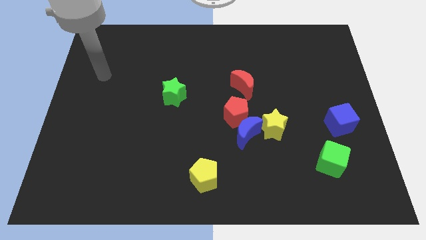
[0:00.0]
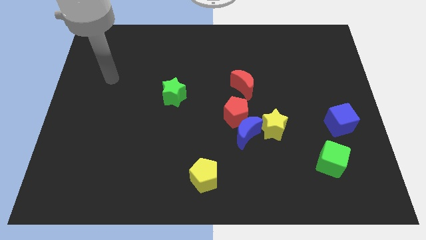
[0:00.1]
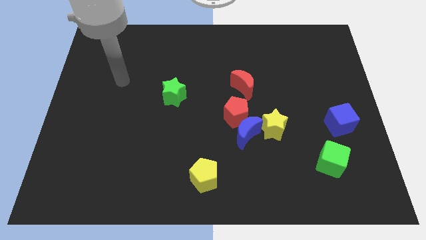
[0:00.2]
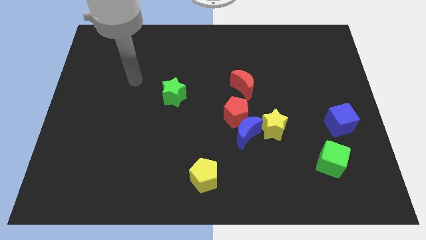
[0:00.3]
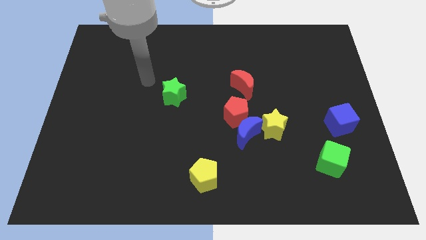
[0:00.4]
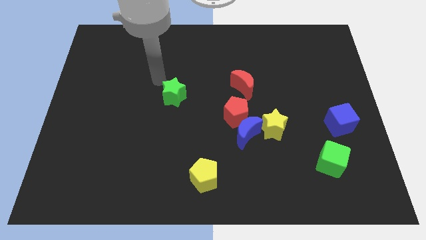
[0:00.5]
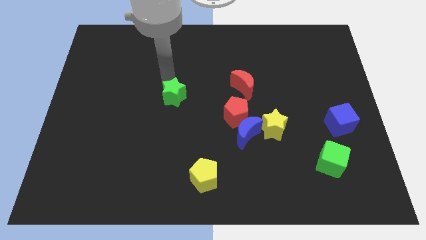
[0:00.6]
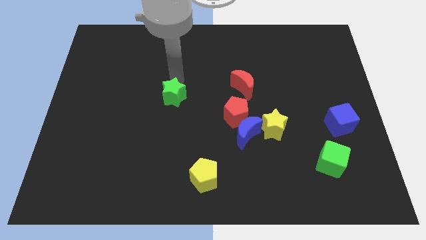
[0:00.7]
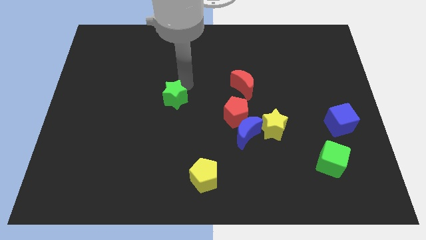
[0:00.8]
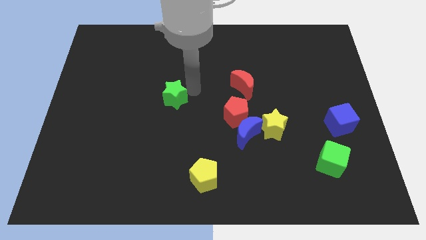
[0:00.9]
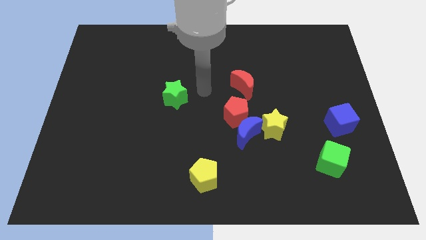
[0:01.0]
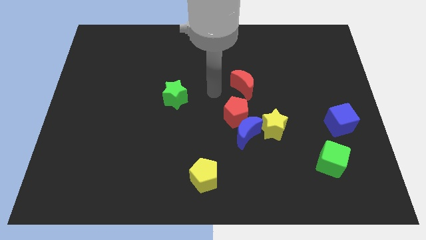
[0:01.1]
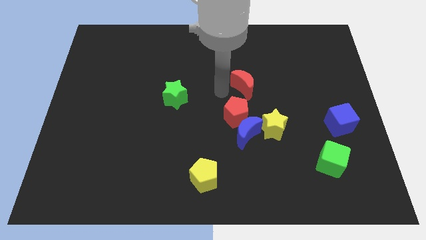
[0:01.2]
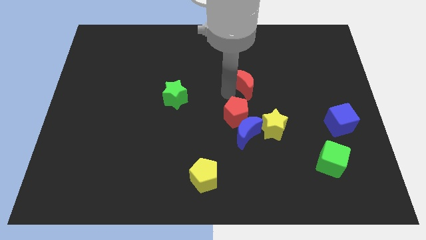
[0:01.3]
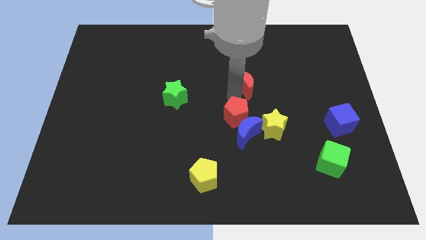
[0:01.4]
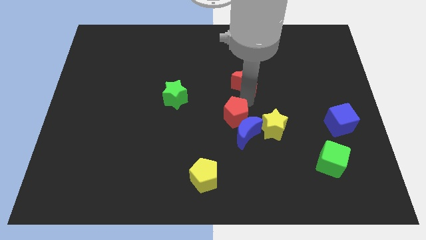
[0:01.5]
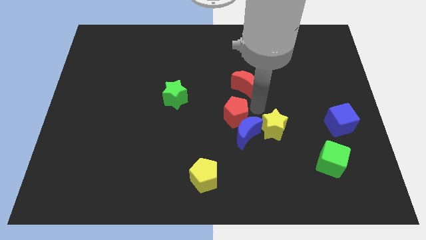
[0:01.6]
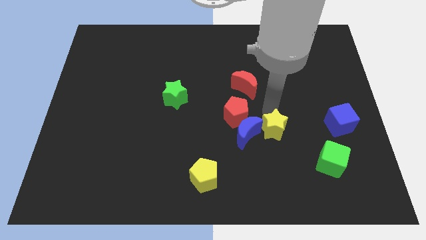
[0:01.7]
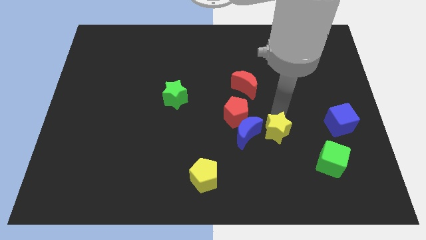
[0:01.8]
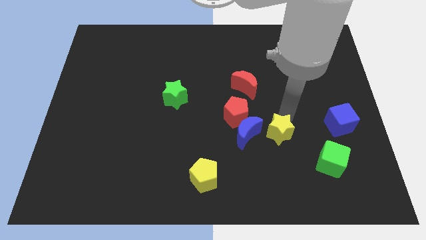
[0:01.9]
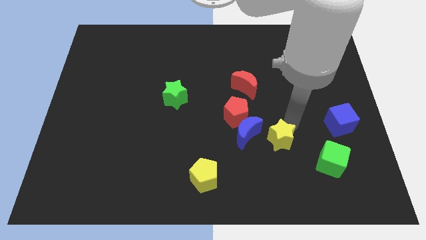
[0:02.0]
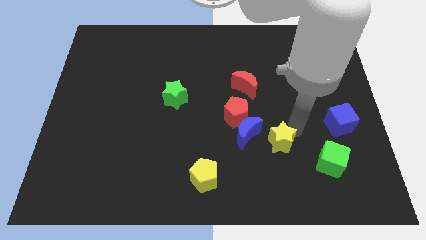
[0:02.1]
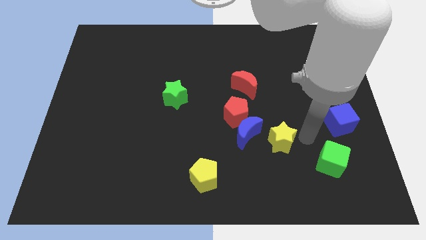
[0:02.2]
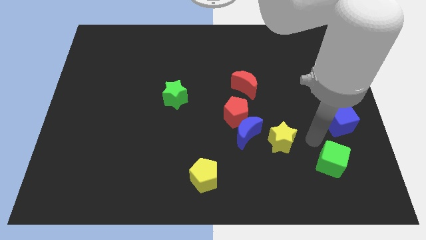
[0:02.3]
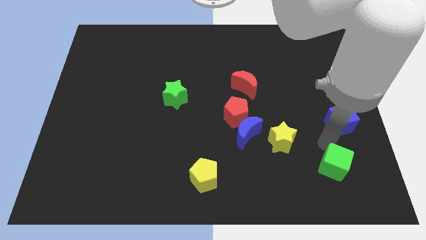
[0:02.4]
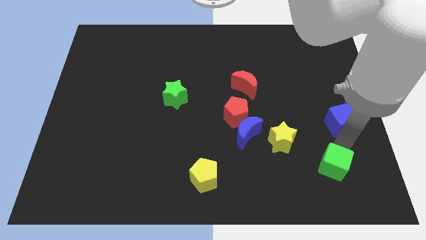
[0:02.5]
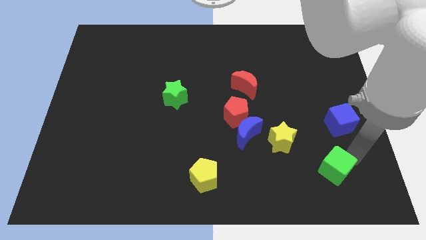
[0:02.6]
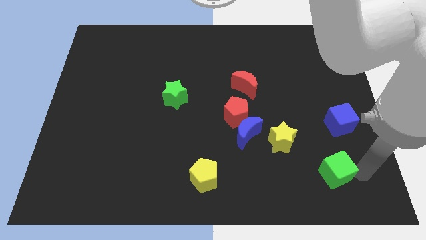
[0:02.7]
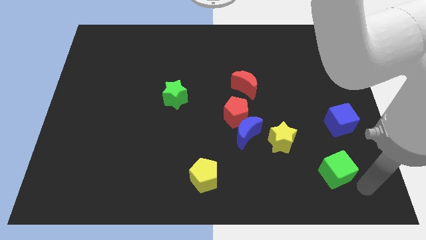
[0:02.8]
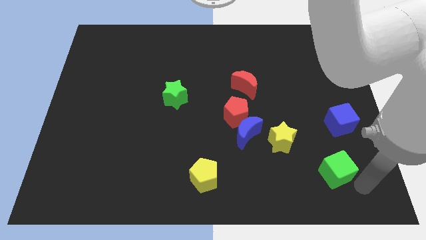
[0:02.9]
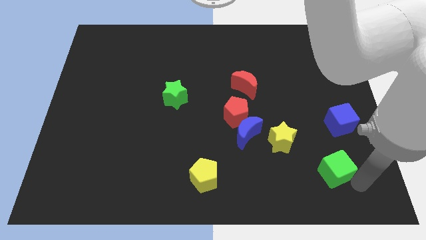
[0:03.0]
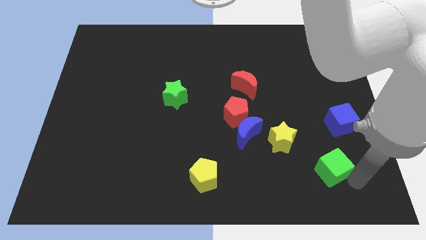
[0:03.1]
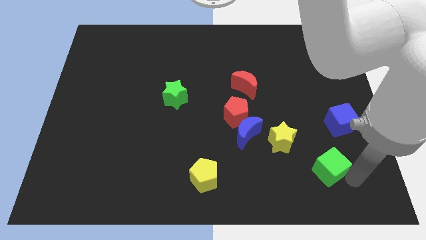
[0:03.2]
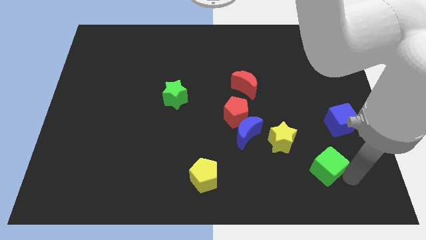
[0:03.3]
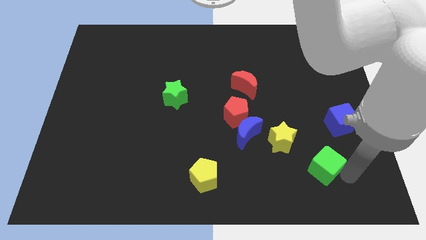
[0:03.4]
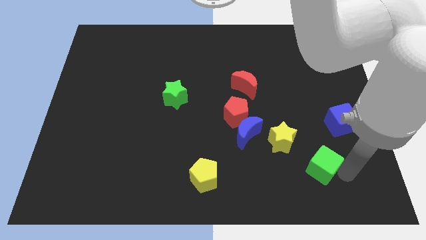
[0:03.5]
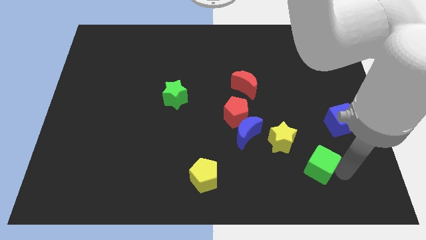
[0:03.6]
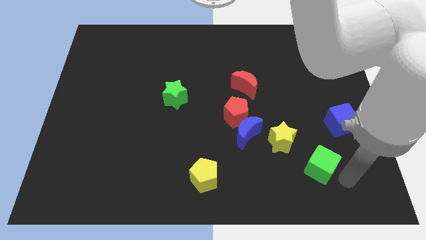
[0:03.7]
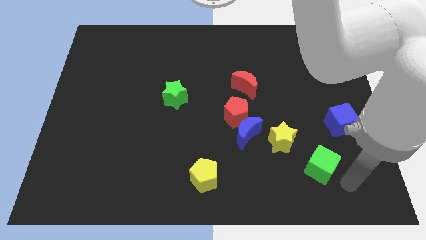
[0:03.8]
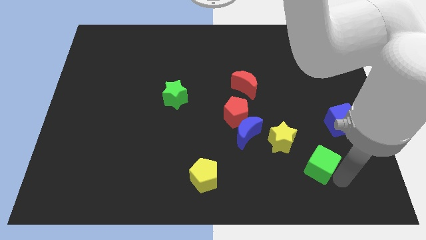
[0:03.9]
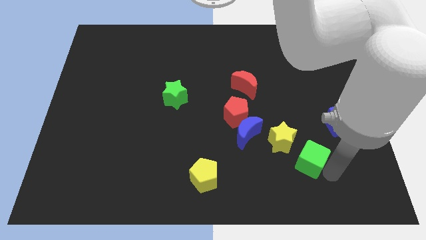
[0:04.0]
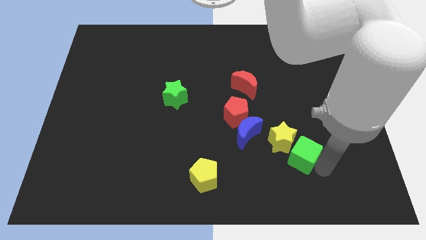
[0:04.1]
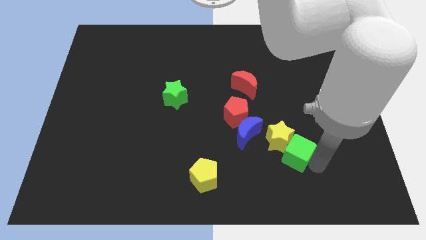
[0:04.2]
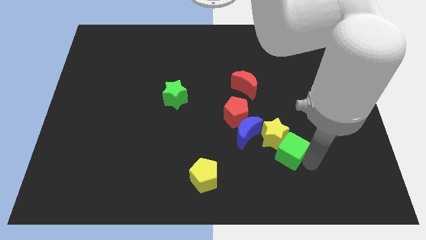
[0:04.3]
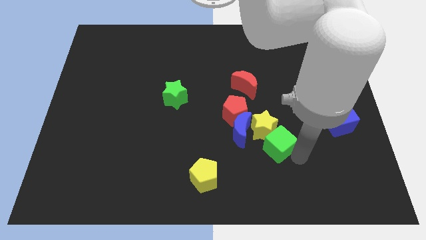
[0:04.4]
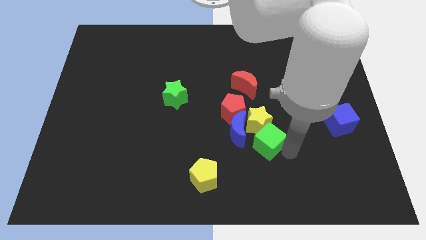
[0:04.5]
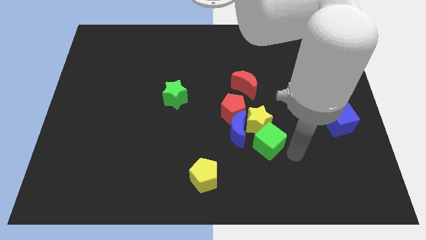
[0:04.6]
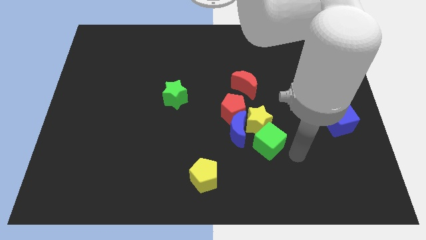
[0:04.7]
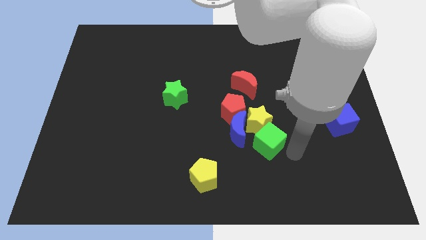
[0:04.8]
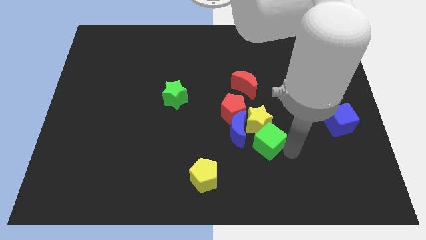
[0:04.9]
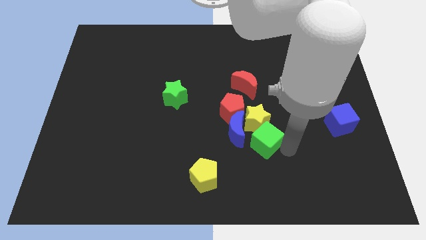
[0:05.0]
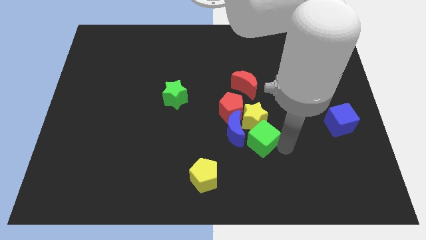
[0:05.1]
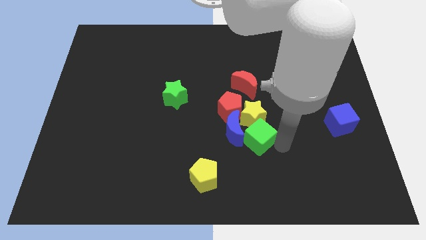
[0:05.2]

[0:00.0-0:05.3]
push the green cube close to the blue moon

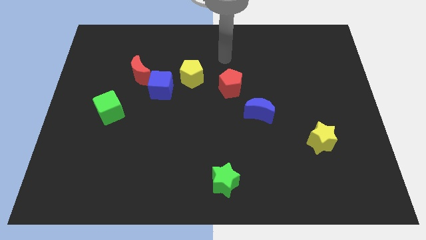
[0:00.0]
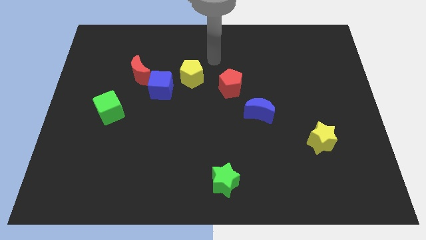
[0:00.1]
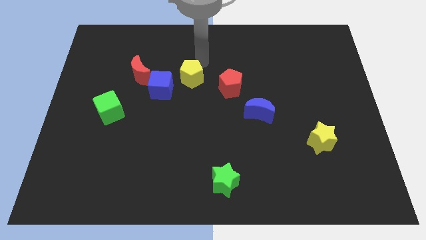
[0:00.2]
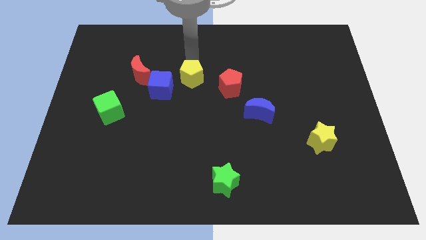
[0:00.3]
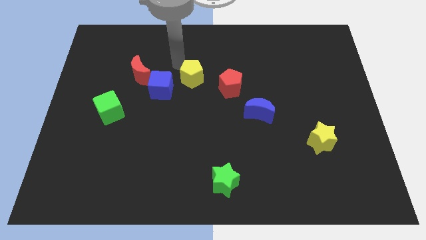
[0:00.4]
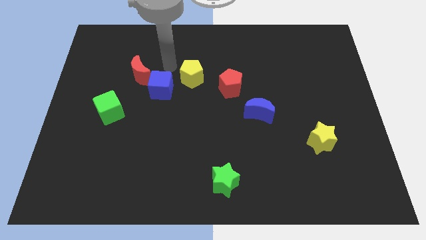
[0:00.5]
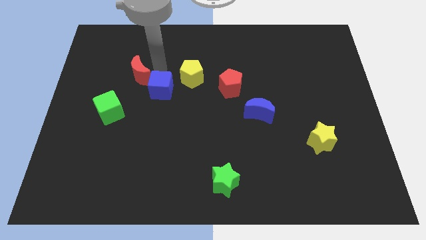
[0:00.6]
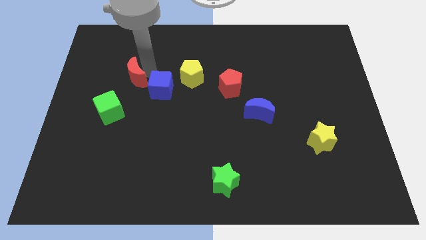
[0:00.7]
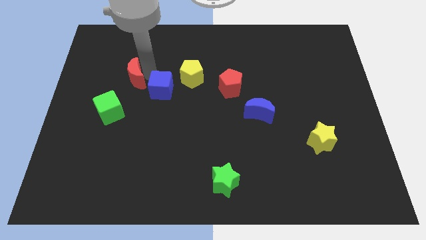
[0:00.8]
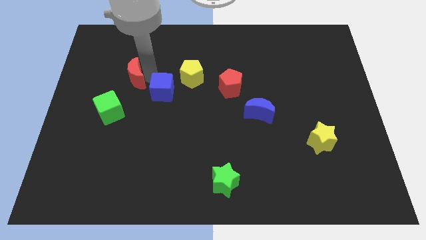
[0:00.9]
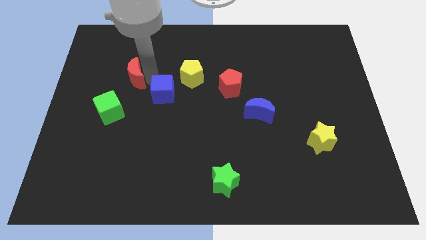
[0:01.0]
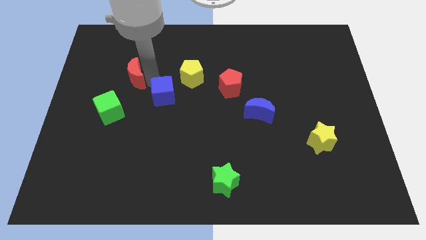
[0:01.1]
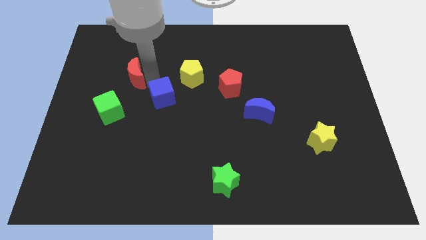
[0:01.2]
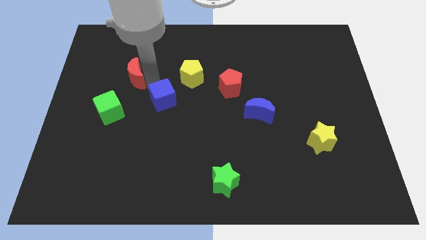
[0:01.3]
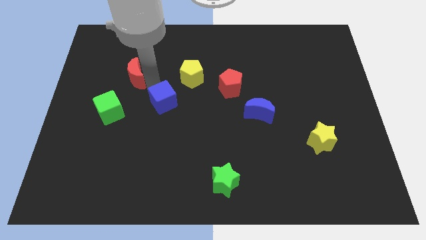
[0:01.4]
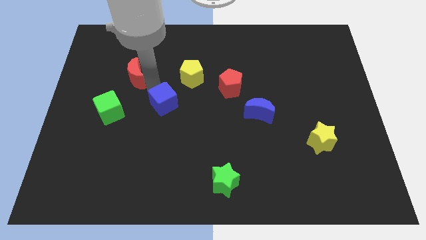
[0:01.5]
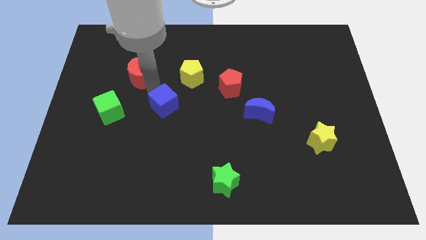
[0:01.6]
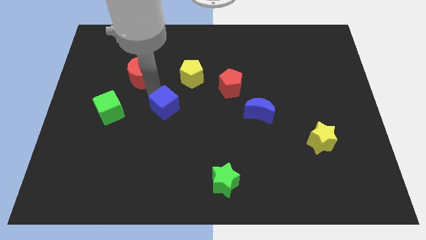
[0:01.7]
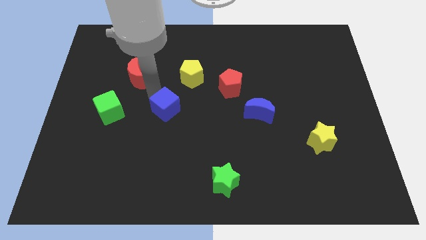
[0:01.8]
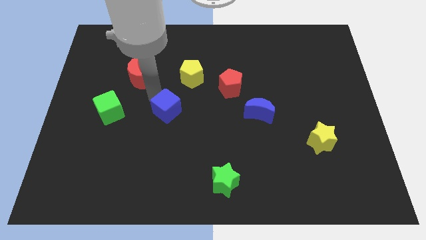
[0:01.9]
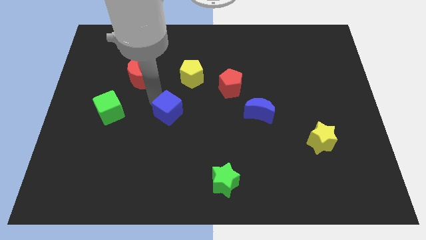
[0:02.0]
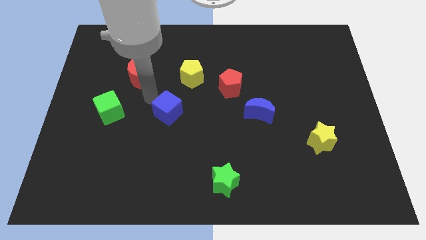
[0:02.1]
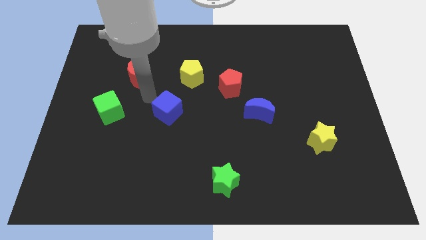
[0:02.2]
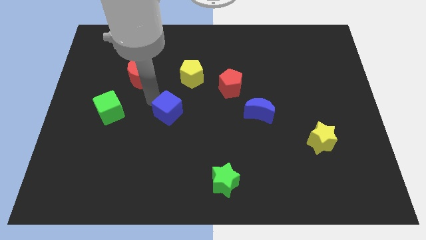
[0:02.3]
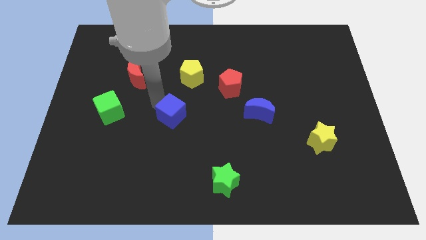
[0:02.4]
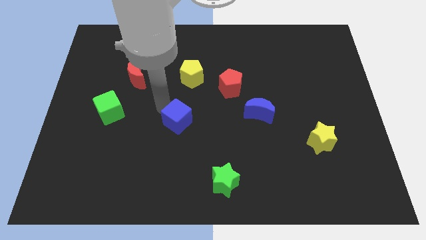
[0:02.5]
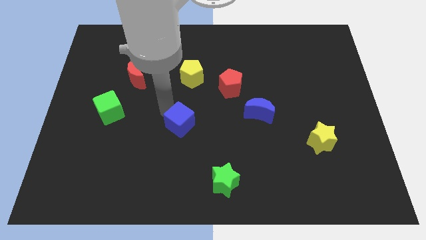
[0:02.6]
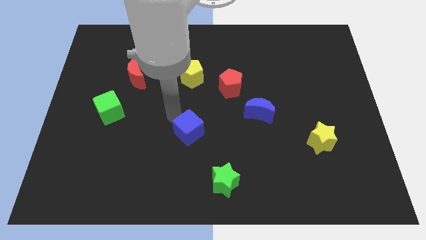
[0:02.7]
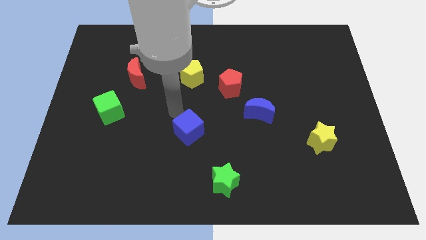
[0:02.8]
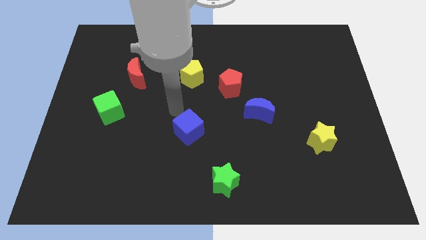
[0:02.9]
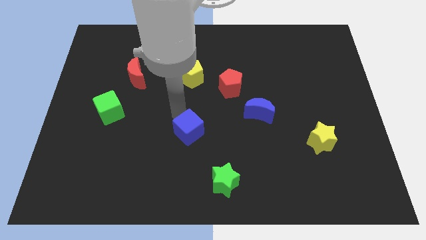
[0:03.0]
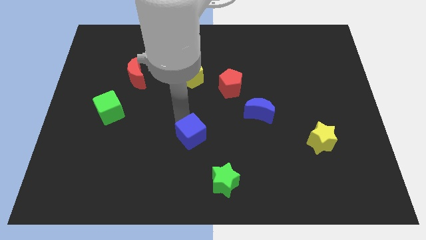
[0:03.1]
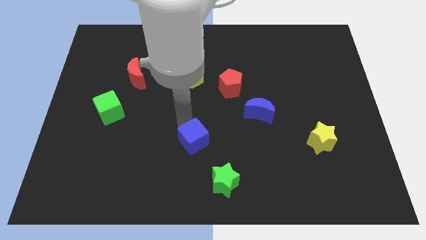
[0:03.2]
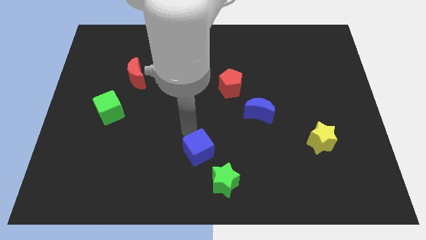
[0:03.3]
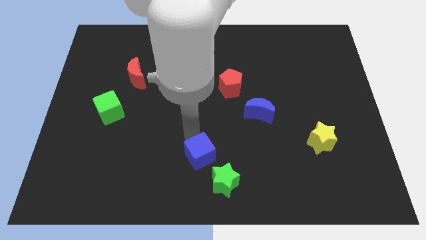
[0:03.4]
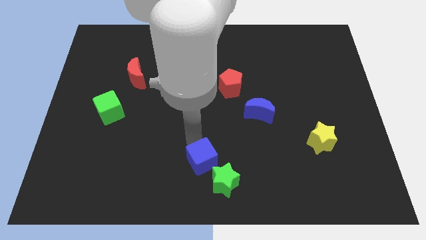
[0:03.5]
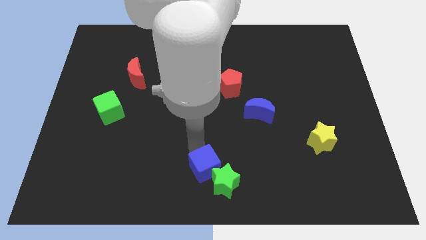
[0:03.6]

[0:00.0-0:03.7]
move the blue cube towards the green star
